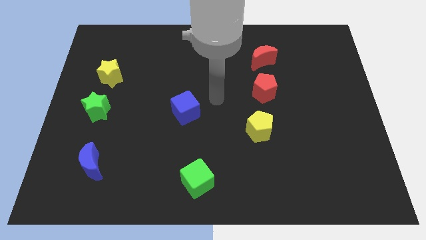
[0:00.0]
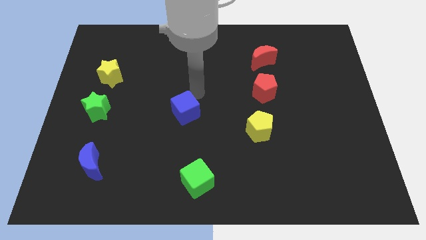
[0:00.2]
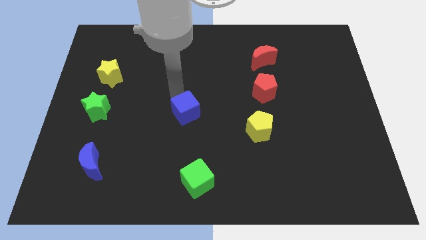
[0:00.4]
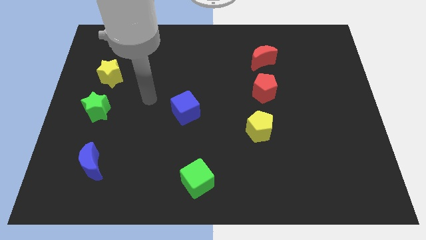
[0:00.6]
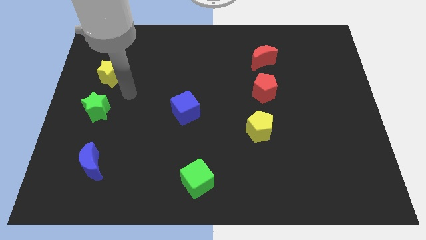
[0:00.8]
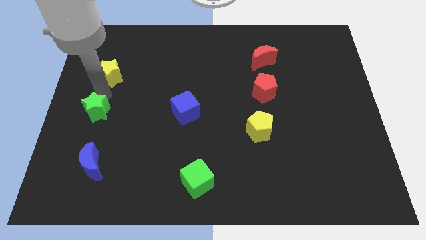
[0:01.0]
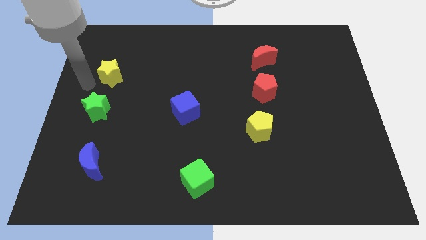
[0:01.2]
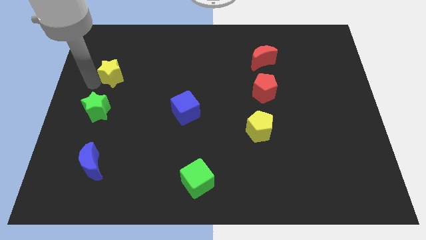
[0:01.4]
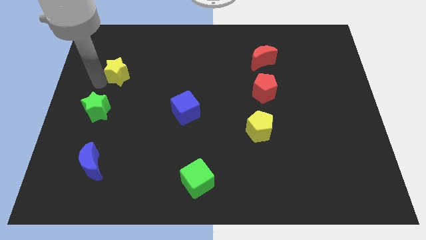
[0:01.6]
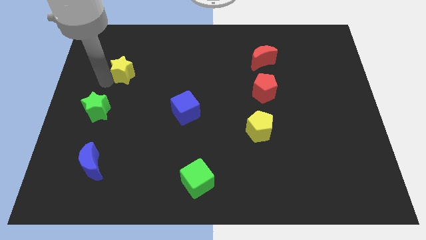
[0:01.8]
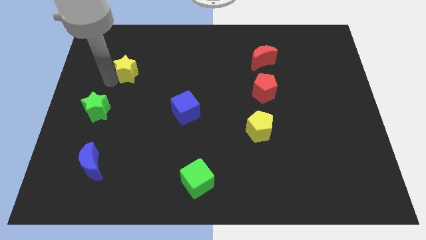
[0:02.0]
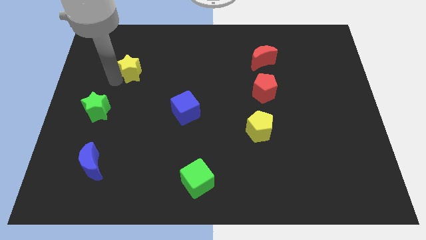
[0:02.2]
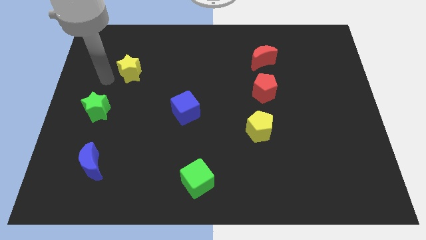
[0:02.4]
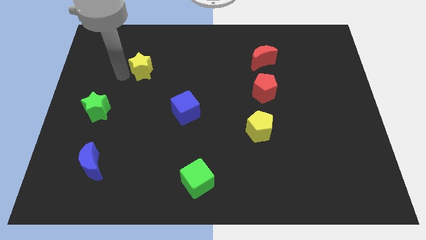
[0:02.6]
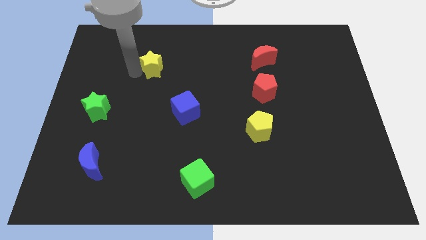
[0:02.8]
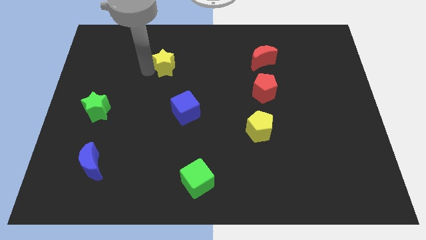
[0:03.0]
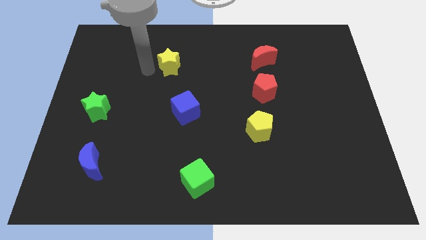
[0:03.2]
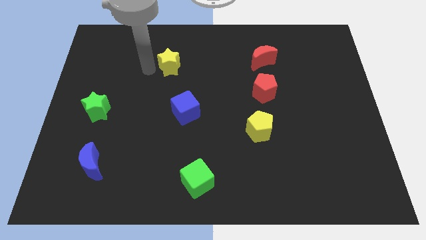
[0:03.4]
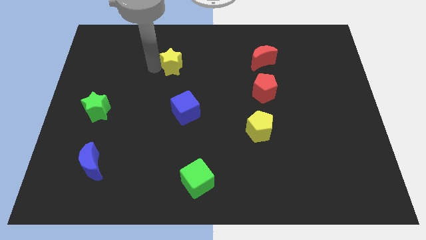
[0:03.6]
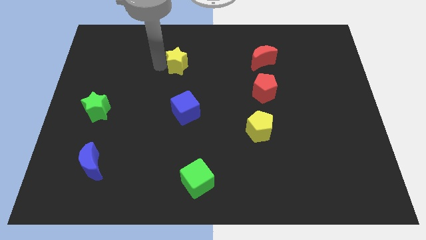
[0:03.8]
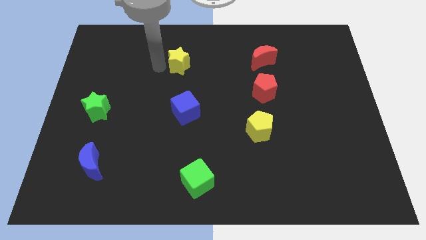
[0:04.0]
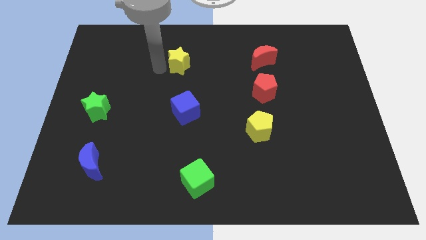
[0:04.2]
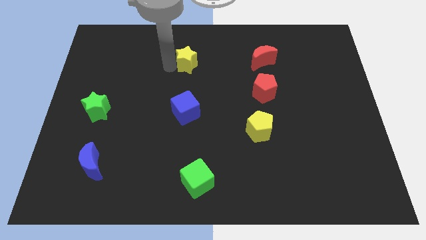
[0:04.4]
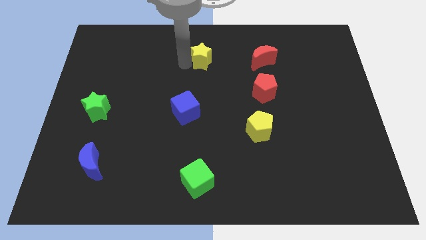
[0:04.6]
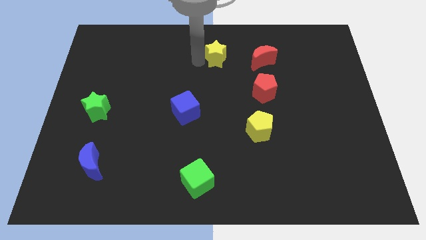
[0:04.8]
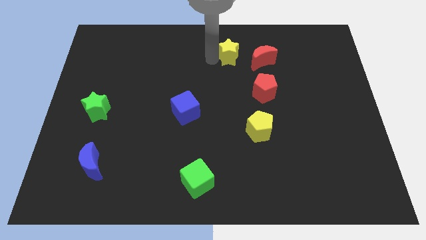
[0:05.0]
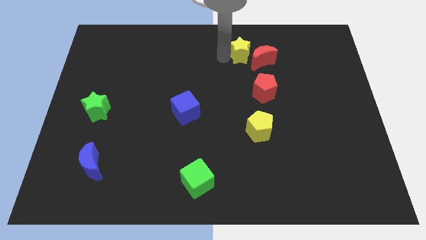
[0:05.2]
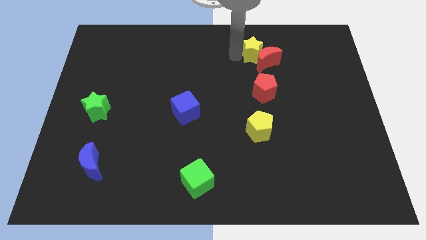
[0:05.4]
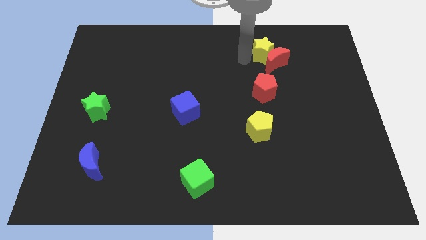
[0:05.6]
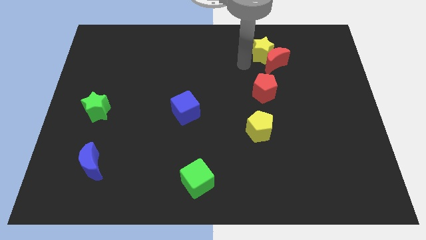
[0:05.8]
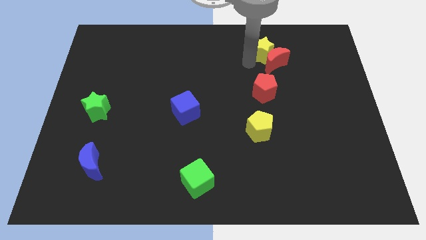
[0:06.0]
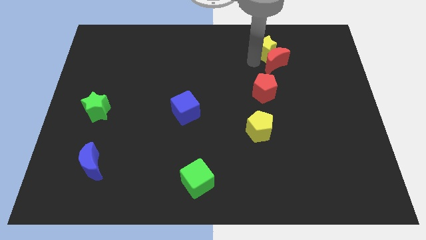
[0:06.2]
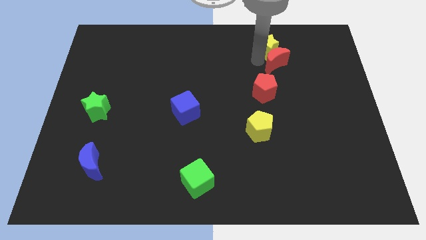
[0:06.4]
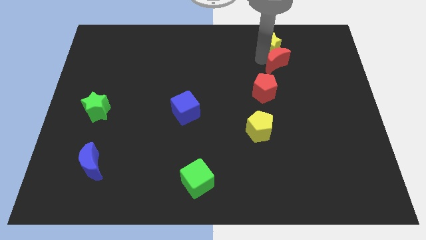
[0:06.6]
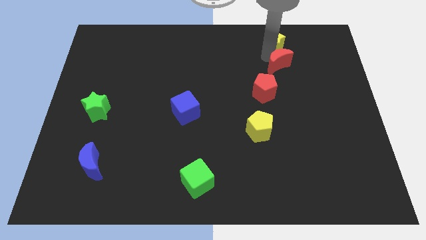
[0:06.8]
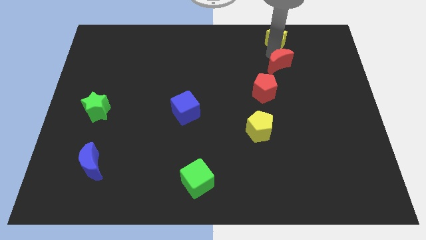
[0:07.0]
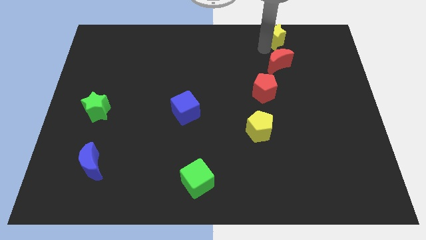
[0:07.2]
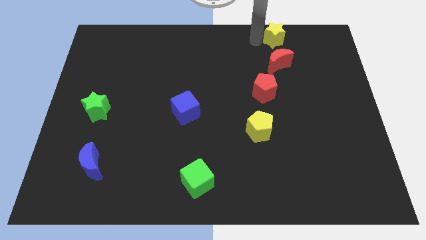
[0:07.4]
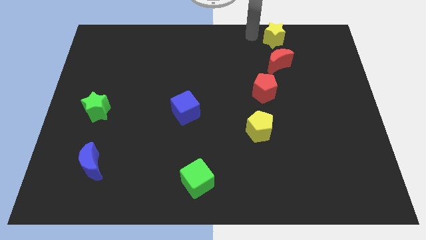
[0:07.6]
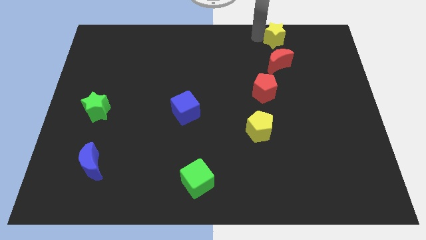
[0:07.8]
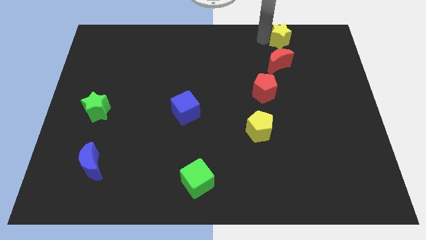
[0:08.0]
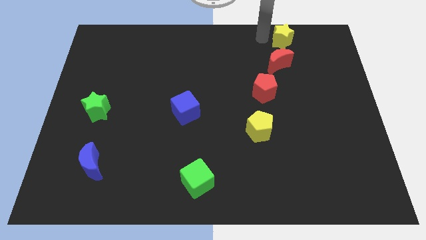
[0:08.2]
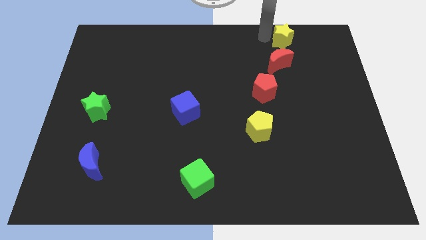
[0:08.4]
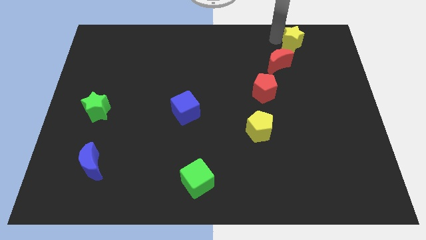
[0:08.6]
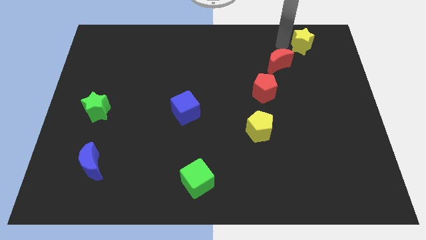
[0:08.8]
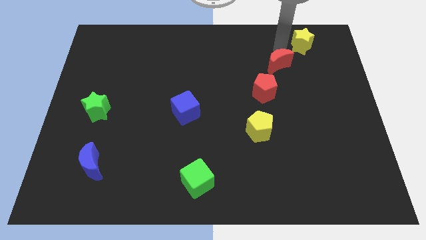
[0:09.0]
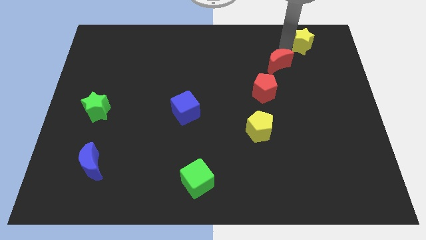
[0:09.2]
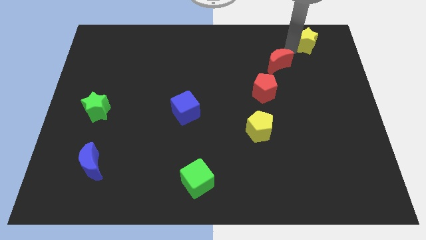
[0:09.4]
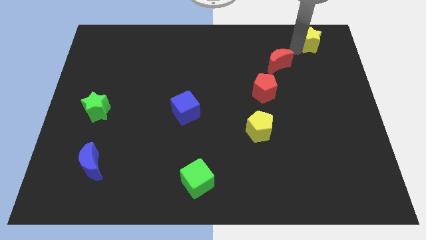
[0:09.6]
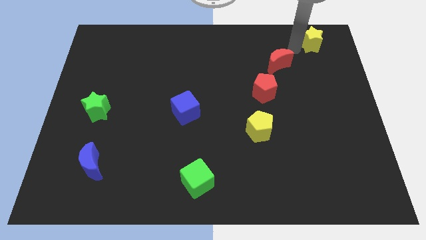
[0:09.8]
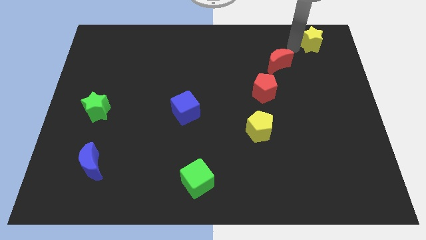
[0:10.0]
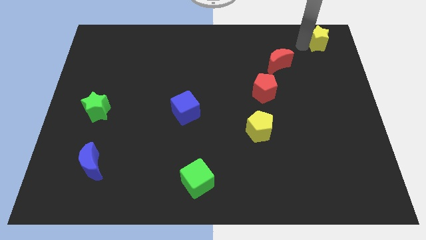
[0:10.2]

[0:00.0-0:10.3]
push the yellow star to the upper right corner

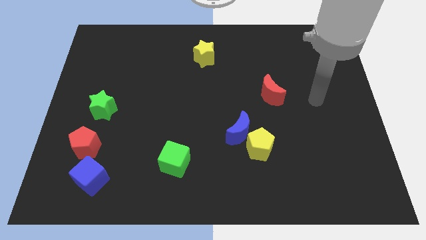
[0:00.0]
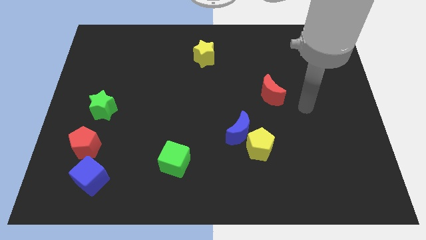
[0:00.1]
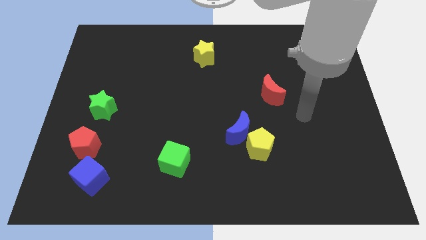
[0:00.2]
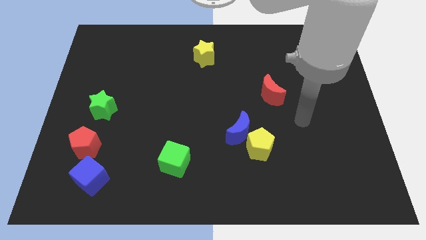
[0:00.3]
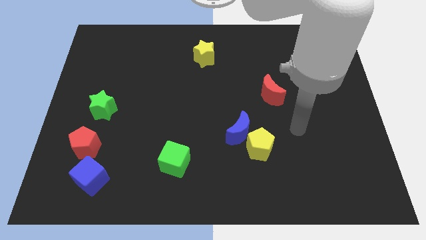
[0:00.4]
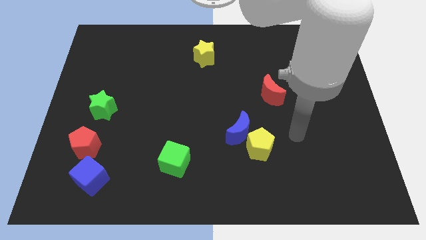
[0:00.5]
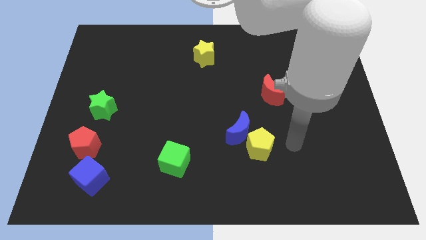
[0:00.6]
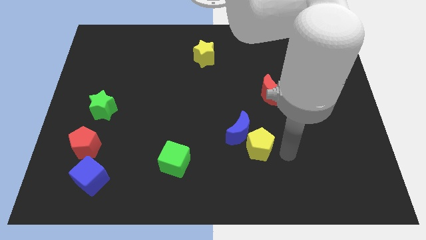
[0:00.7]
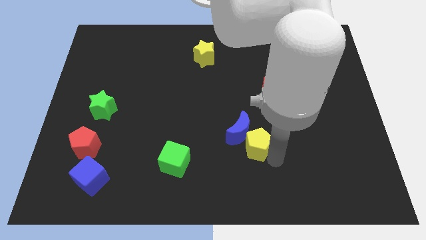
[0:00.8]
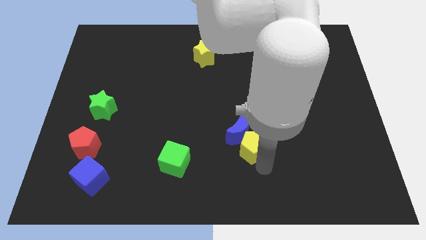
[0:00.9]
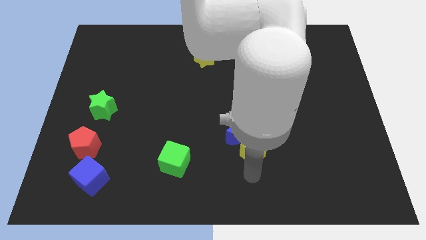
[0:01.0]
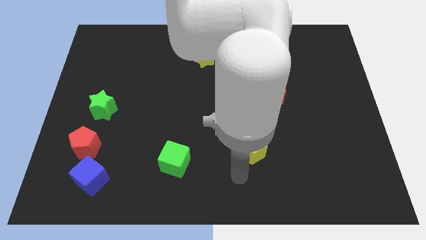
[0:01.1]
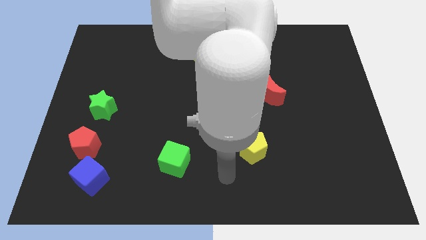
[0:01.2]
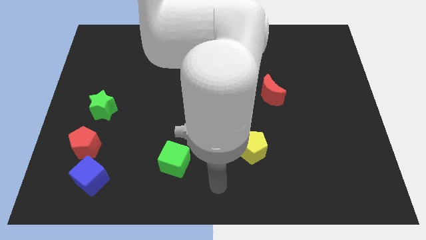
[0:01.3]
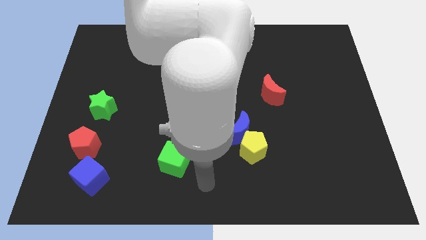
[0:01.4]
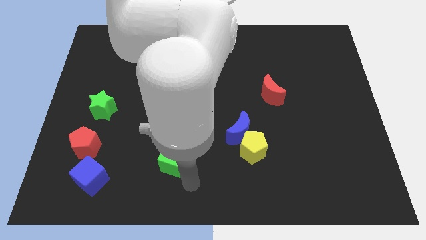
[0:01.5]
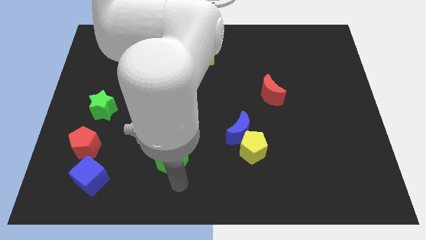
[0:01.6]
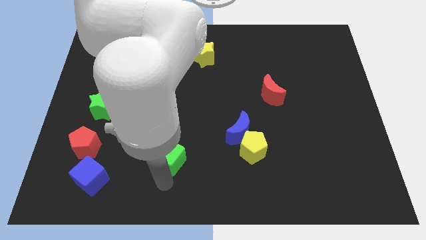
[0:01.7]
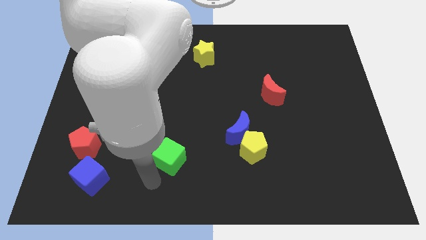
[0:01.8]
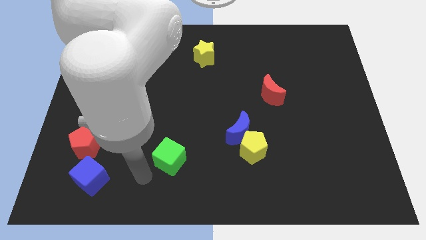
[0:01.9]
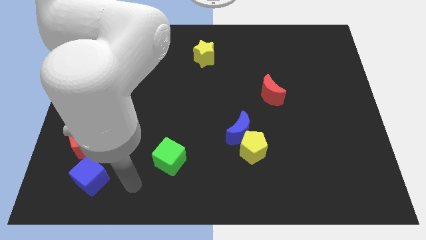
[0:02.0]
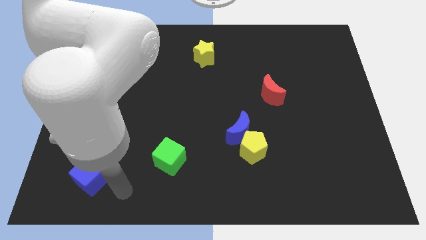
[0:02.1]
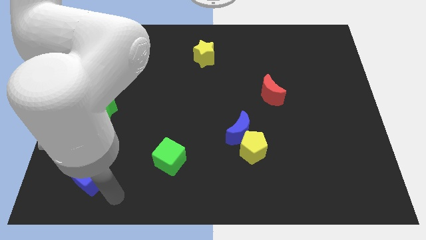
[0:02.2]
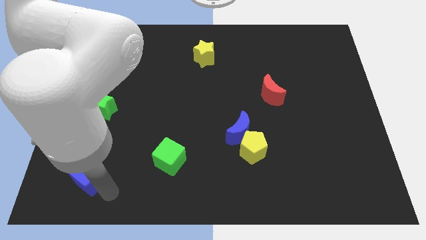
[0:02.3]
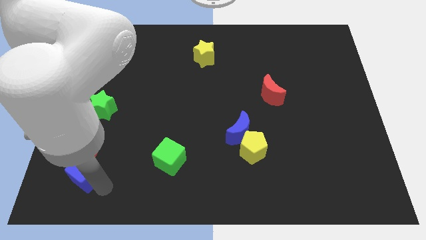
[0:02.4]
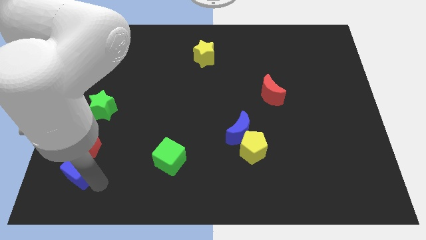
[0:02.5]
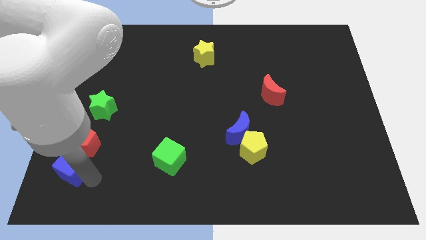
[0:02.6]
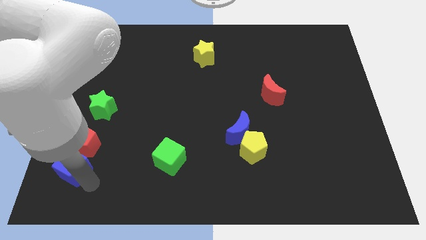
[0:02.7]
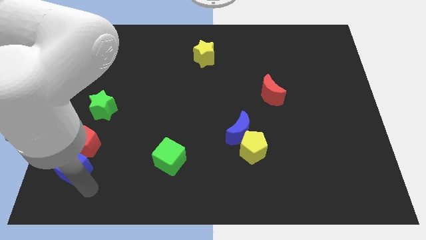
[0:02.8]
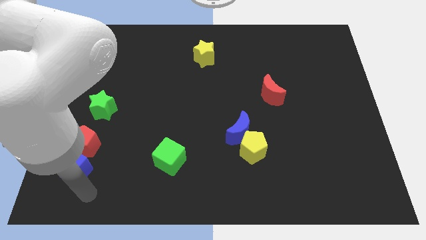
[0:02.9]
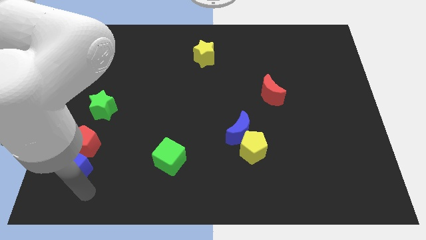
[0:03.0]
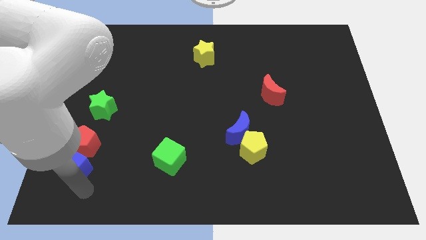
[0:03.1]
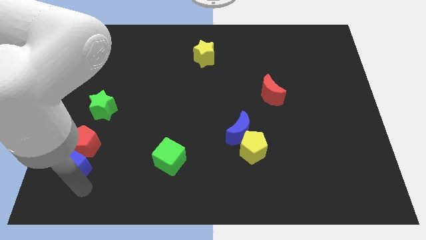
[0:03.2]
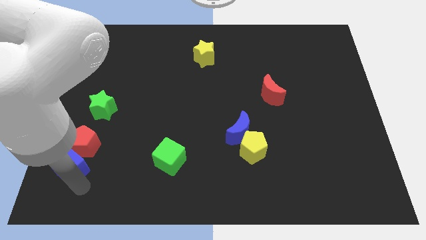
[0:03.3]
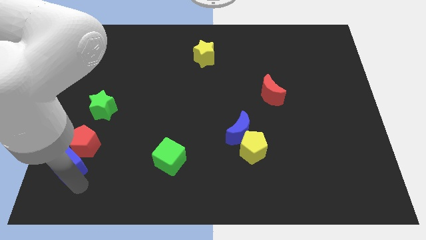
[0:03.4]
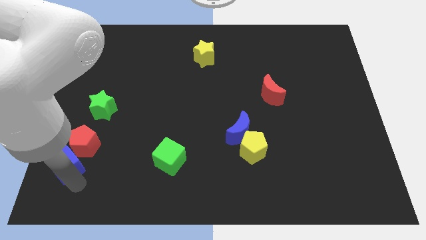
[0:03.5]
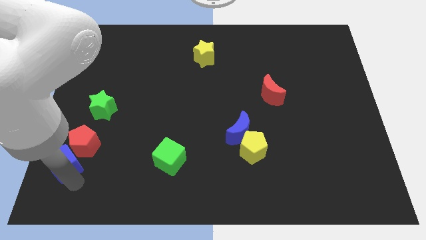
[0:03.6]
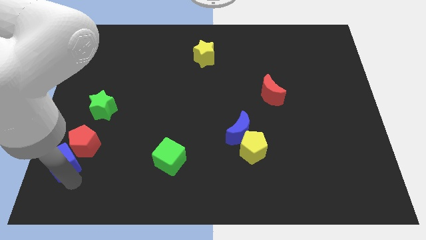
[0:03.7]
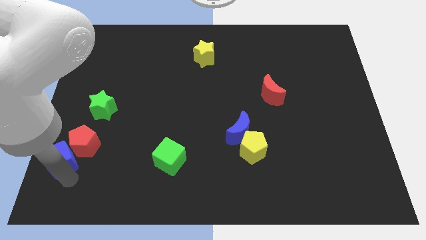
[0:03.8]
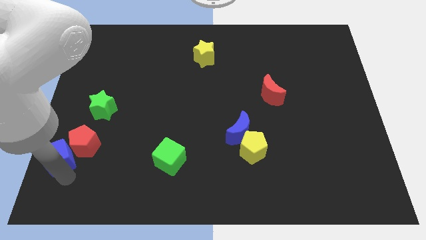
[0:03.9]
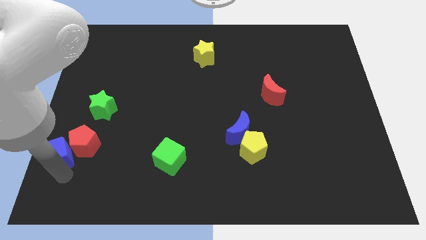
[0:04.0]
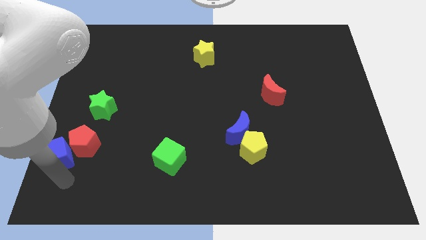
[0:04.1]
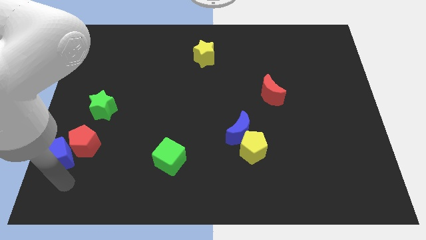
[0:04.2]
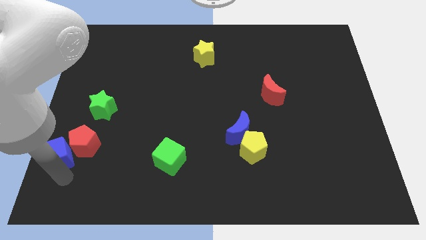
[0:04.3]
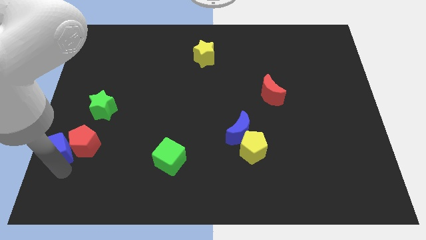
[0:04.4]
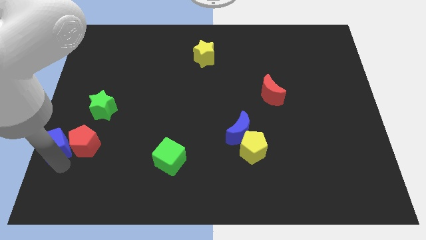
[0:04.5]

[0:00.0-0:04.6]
slide the blue cube to the left side of the board
